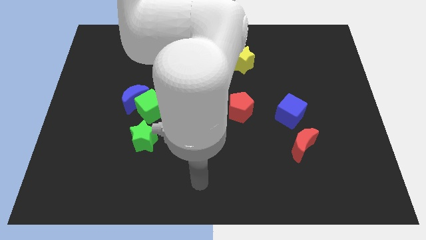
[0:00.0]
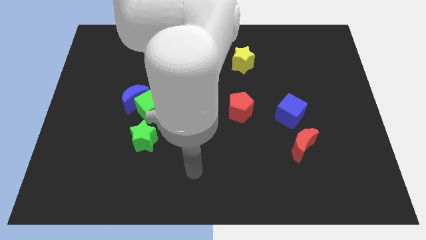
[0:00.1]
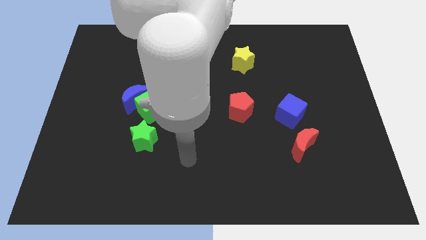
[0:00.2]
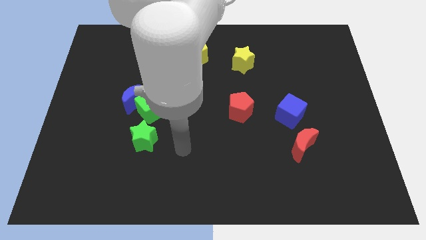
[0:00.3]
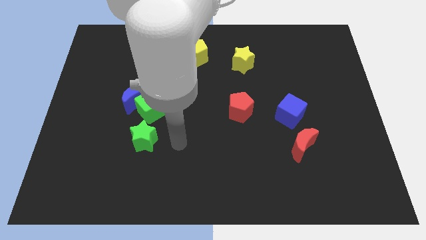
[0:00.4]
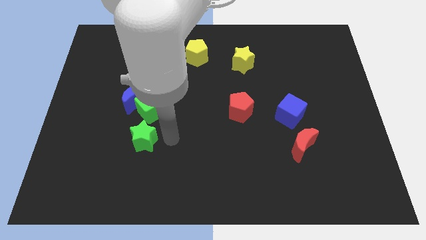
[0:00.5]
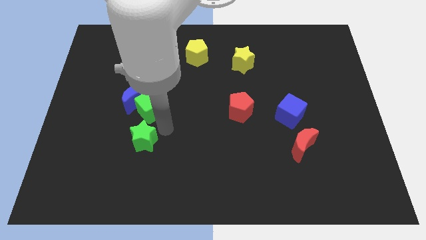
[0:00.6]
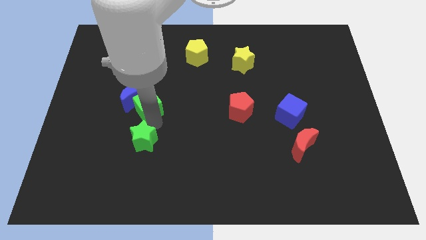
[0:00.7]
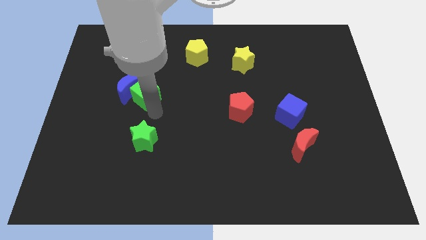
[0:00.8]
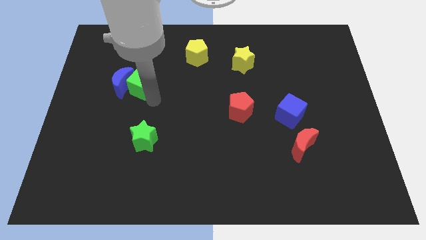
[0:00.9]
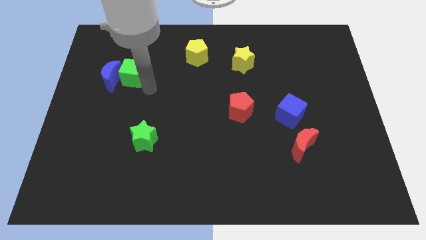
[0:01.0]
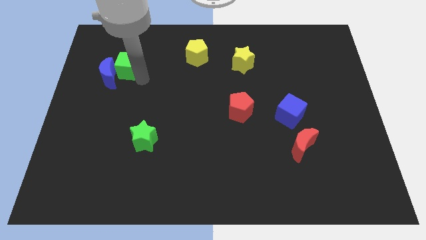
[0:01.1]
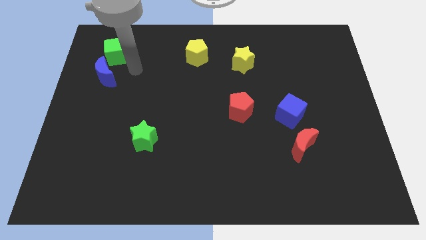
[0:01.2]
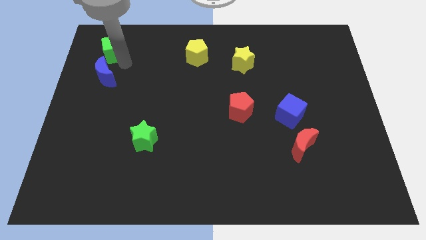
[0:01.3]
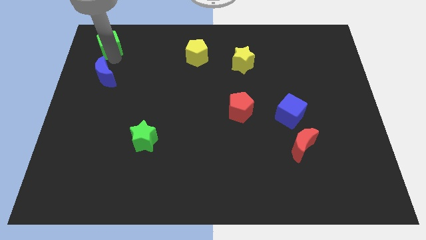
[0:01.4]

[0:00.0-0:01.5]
move the blue moon away from the green cube

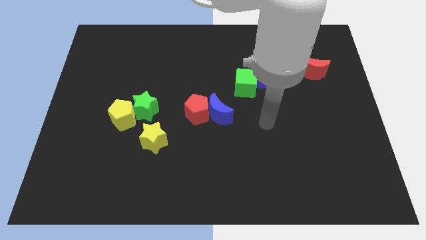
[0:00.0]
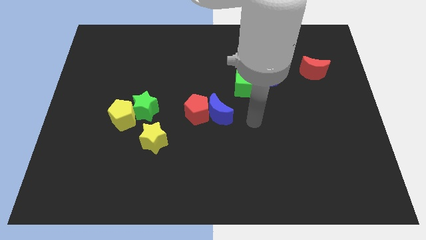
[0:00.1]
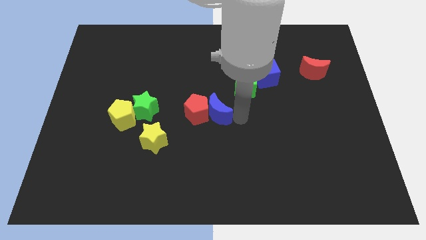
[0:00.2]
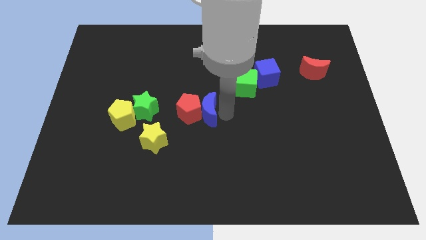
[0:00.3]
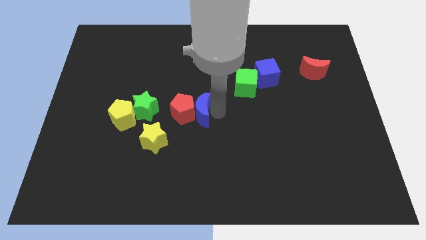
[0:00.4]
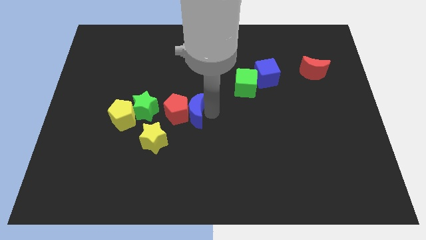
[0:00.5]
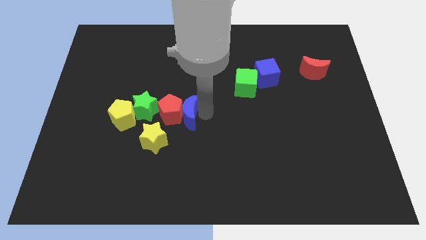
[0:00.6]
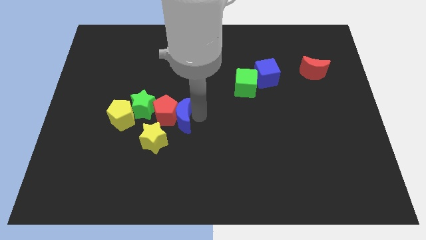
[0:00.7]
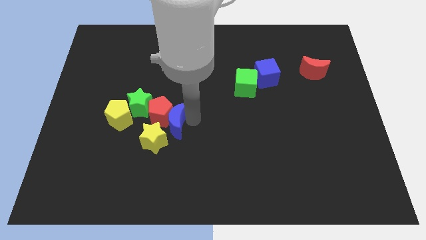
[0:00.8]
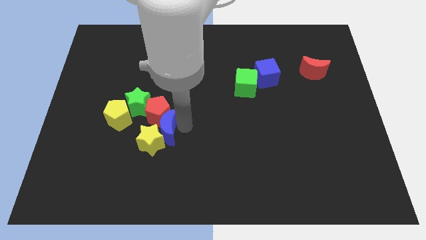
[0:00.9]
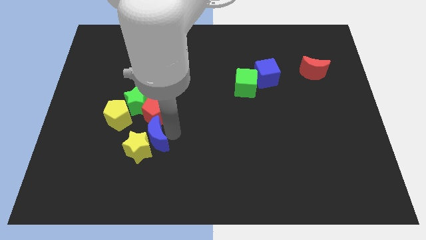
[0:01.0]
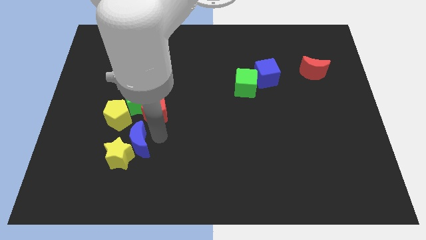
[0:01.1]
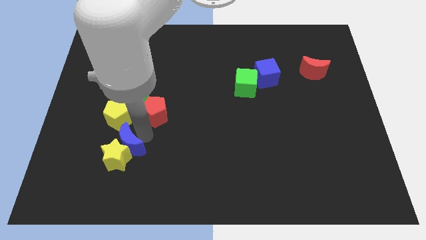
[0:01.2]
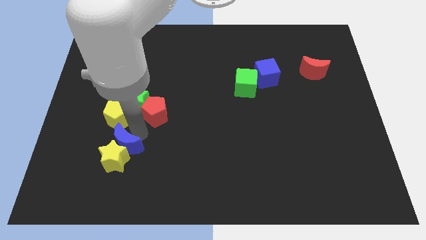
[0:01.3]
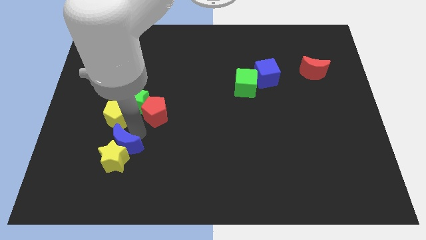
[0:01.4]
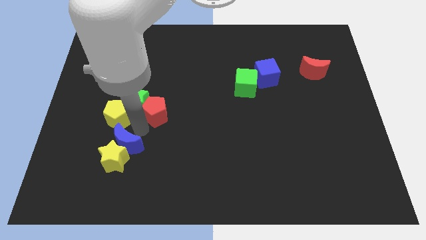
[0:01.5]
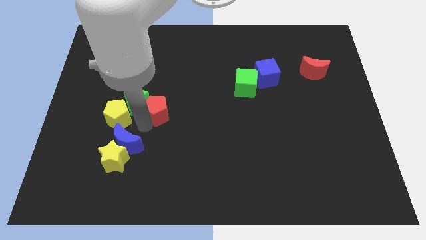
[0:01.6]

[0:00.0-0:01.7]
move the red pentagon away from the blue moon

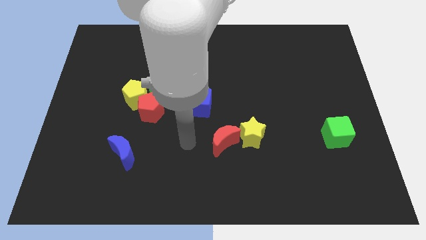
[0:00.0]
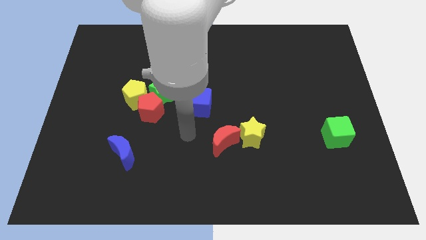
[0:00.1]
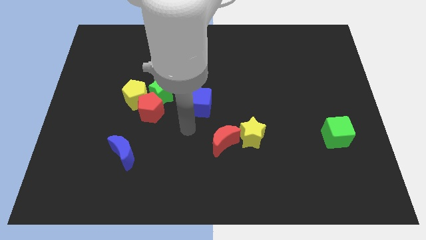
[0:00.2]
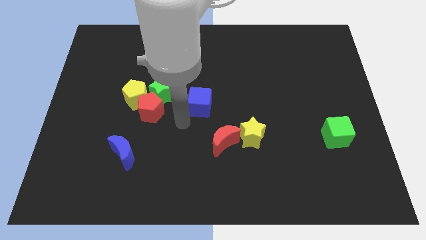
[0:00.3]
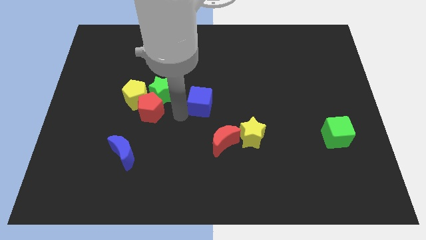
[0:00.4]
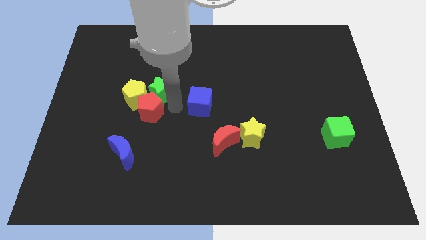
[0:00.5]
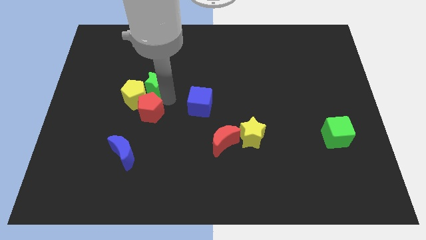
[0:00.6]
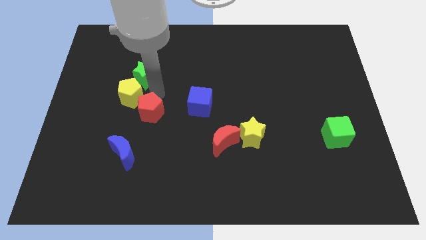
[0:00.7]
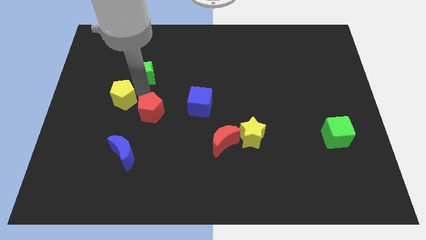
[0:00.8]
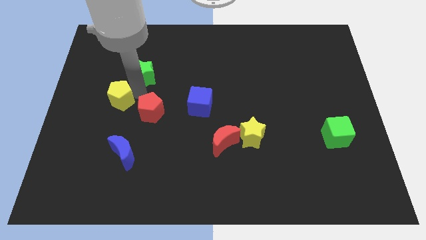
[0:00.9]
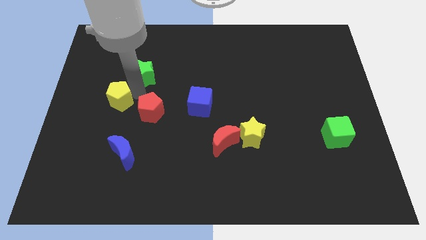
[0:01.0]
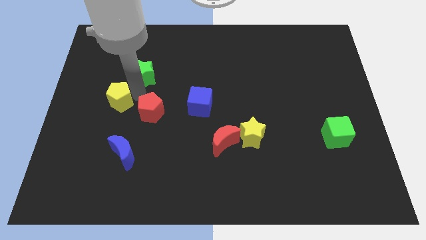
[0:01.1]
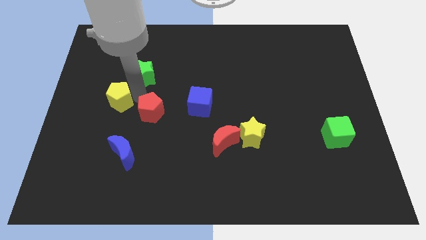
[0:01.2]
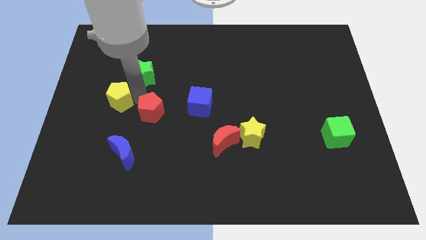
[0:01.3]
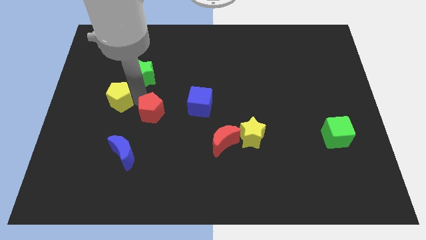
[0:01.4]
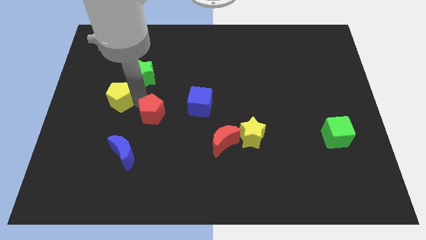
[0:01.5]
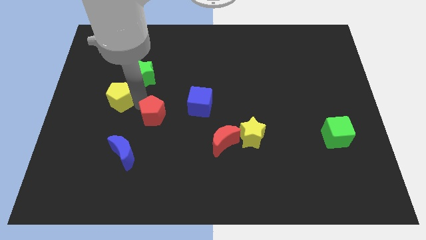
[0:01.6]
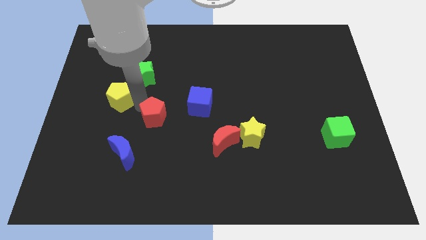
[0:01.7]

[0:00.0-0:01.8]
pull the red pentagon apart from the yellow pentagon and green star

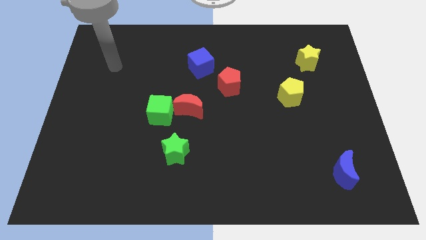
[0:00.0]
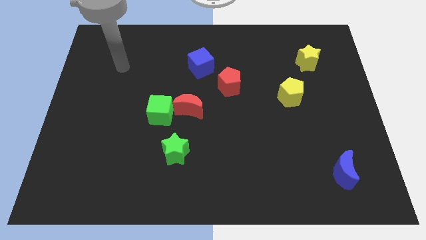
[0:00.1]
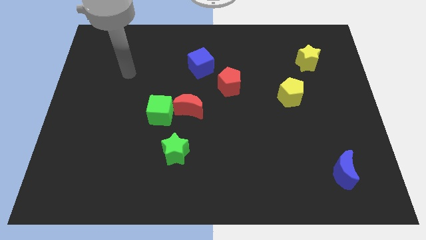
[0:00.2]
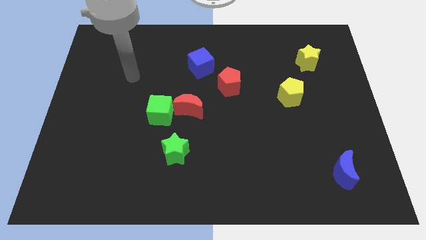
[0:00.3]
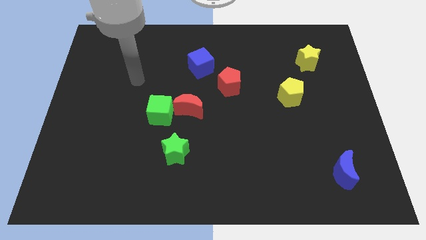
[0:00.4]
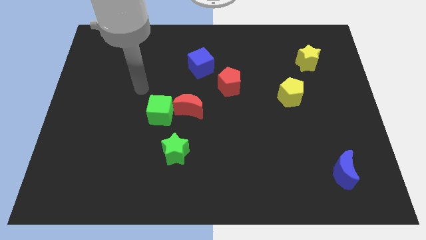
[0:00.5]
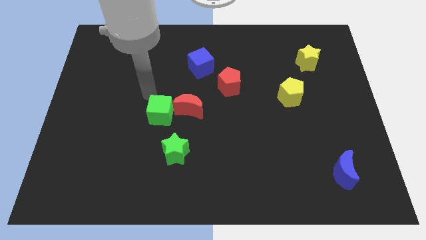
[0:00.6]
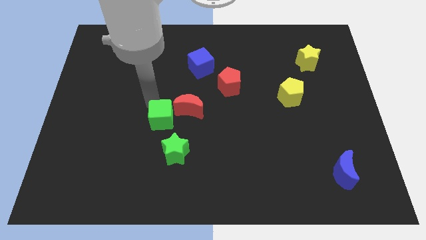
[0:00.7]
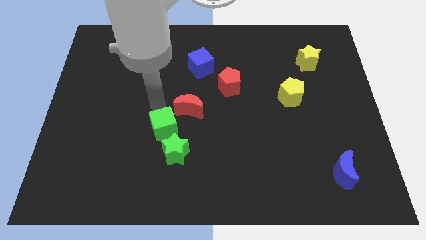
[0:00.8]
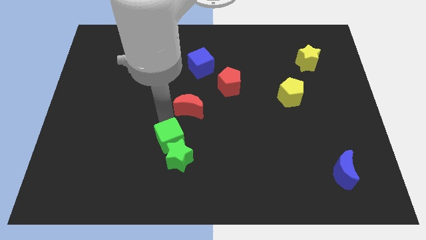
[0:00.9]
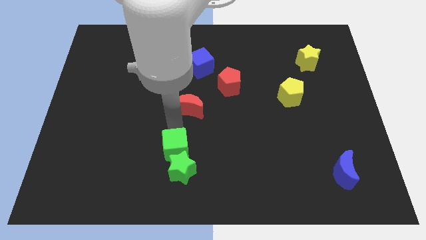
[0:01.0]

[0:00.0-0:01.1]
pull the red moon apart from the green cube

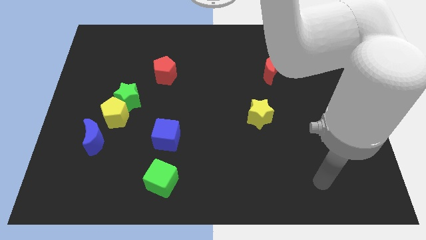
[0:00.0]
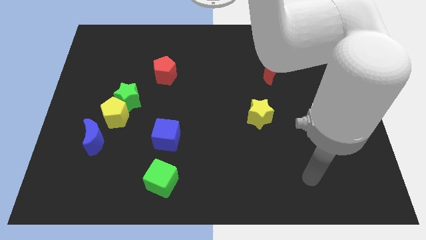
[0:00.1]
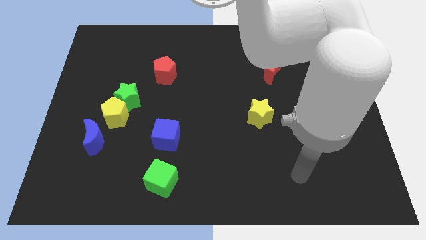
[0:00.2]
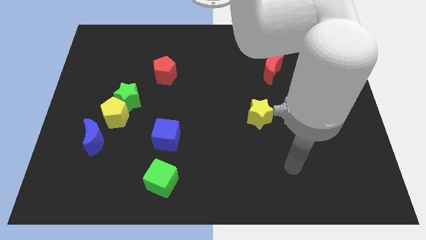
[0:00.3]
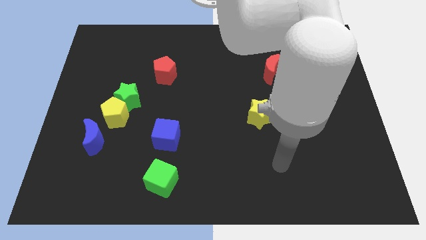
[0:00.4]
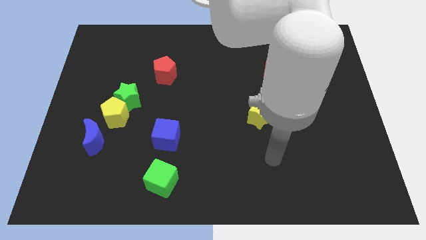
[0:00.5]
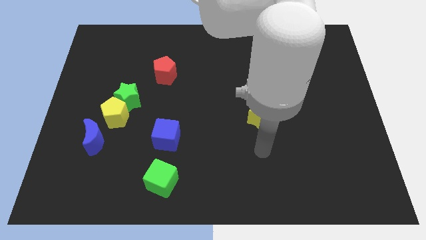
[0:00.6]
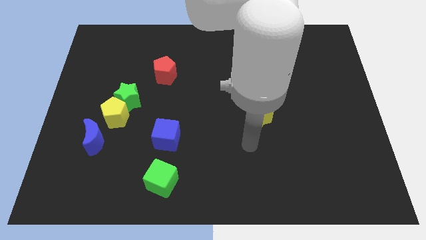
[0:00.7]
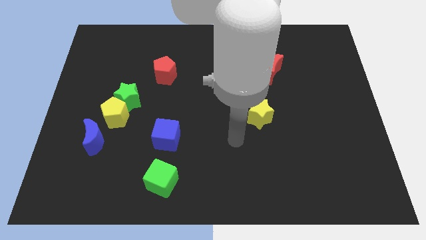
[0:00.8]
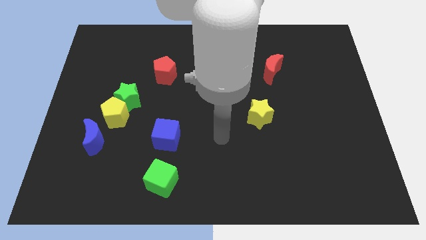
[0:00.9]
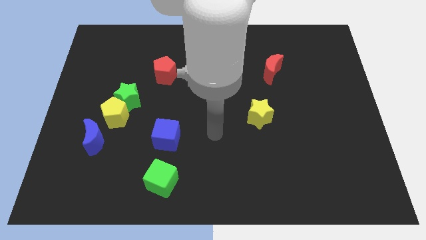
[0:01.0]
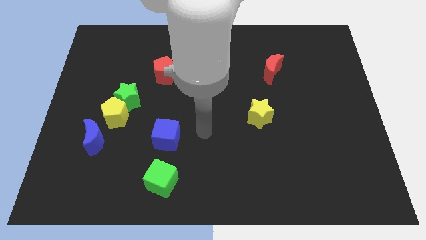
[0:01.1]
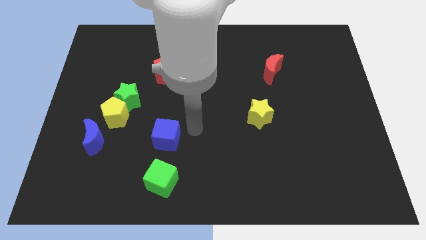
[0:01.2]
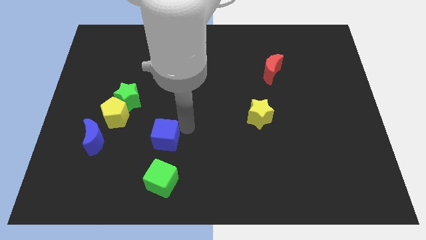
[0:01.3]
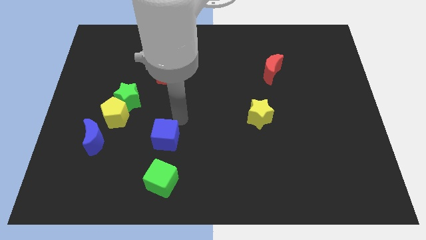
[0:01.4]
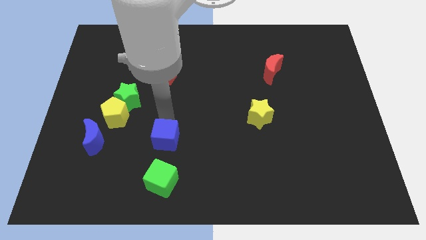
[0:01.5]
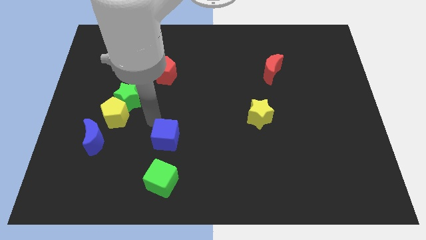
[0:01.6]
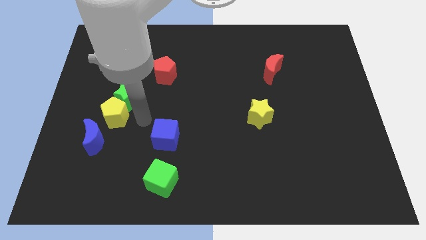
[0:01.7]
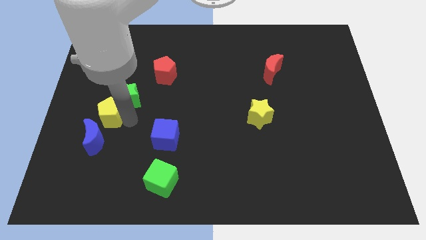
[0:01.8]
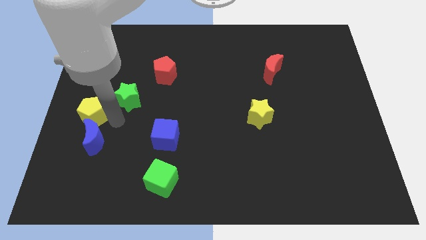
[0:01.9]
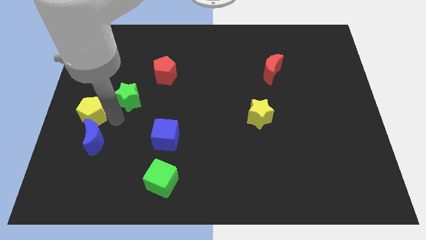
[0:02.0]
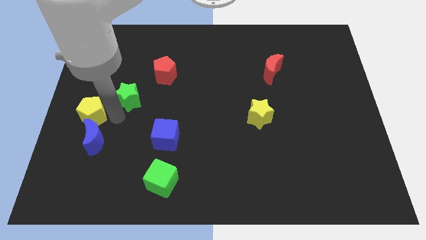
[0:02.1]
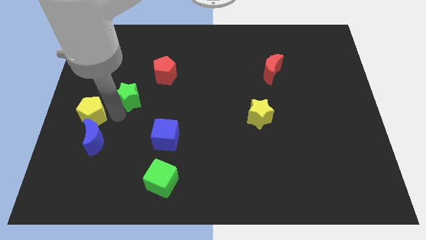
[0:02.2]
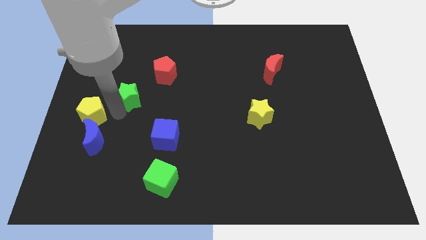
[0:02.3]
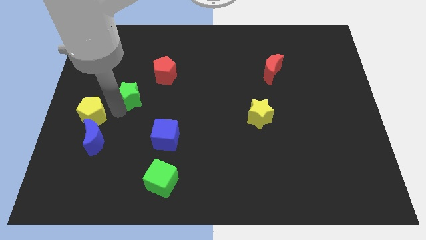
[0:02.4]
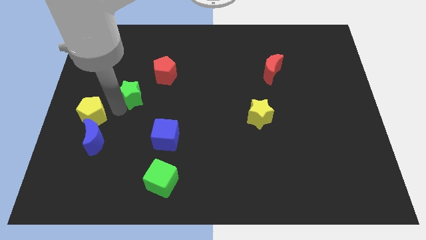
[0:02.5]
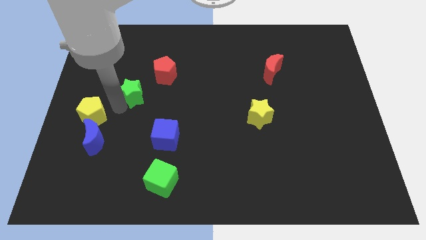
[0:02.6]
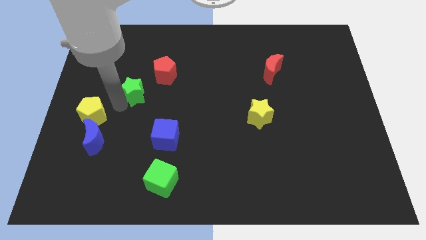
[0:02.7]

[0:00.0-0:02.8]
separate the green star from the yellow pentagon

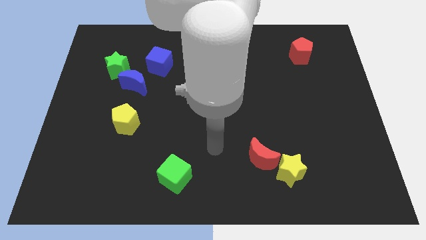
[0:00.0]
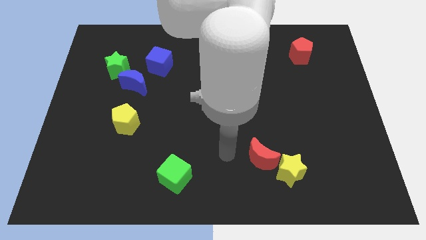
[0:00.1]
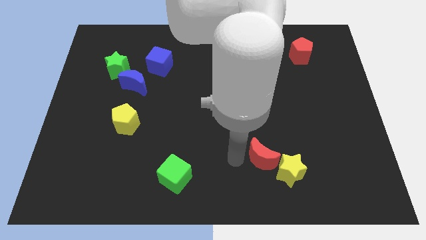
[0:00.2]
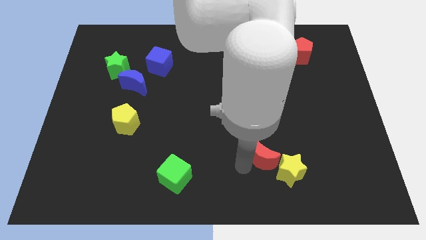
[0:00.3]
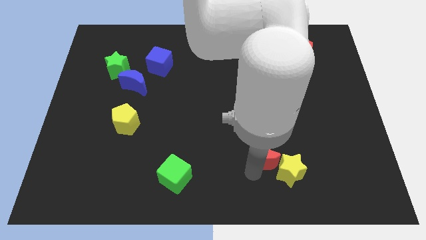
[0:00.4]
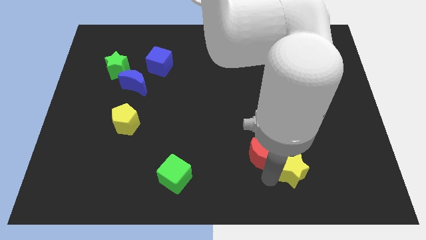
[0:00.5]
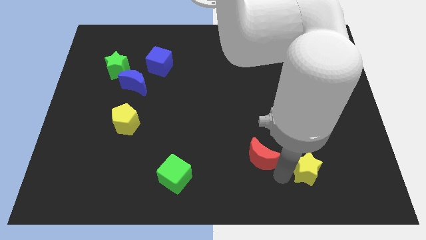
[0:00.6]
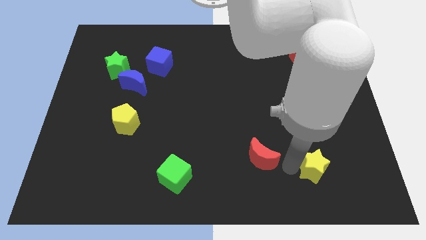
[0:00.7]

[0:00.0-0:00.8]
move the red moon away from the yellow star
